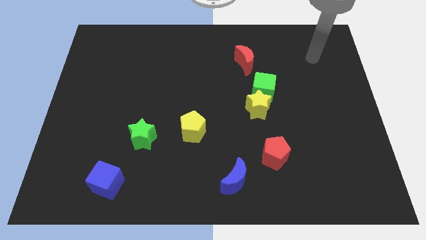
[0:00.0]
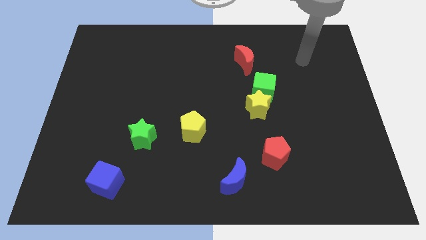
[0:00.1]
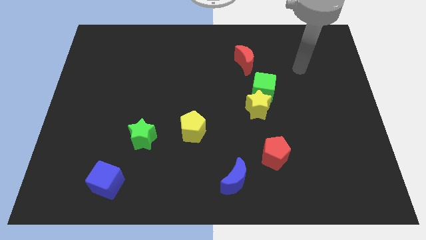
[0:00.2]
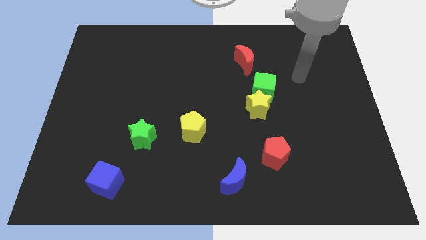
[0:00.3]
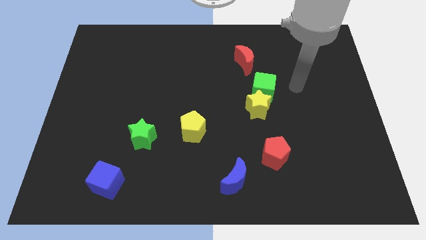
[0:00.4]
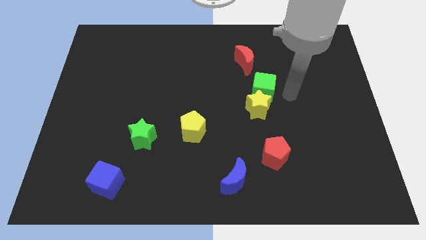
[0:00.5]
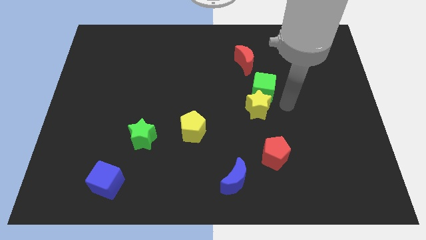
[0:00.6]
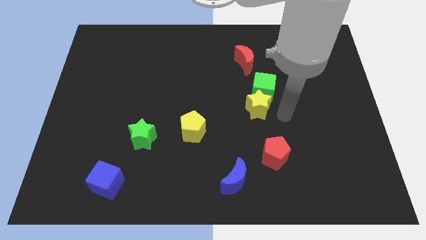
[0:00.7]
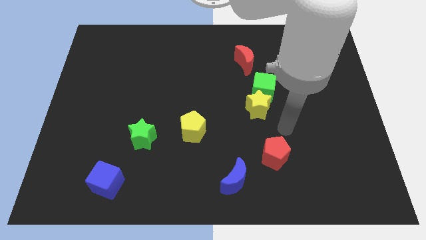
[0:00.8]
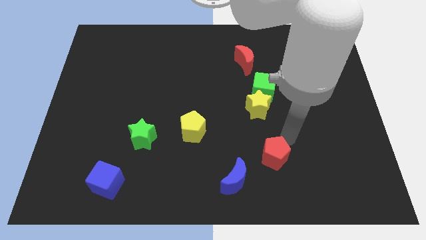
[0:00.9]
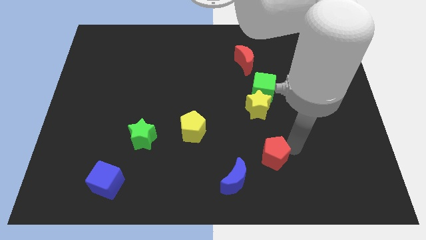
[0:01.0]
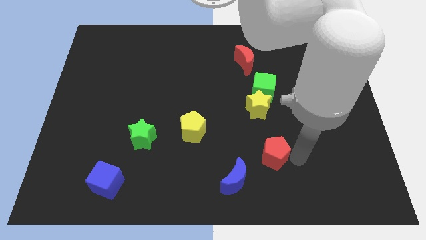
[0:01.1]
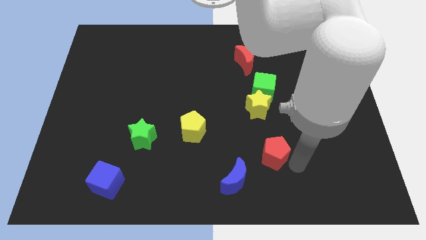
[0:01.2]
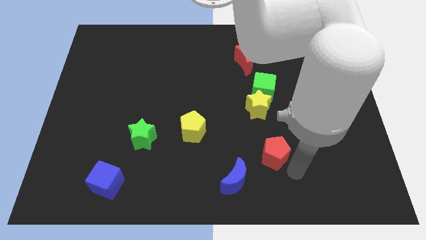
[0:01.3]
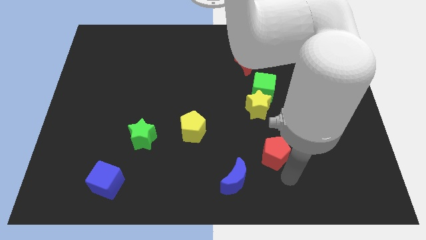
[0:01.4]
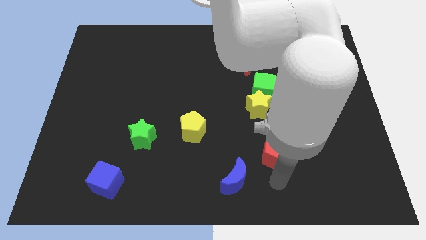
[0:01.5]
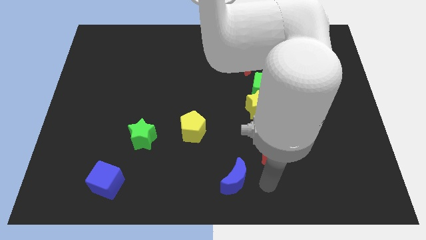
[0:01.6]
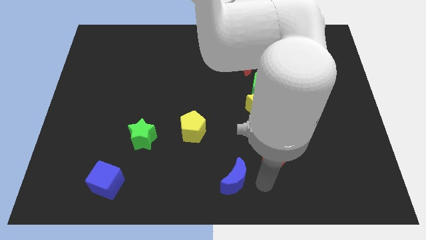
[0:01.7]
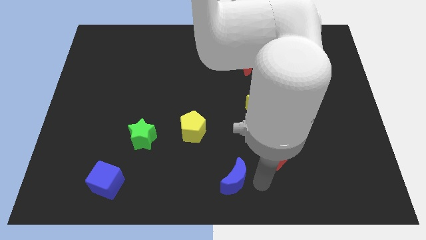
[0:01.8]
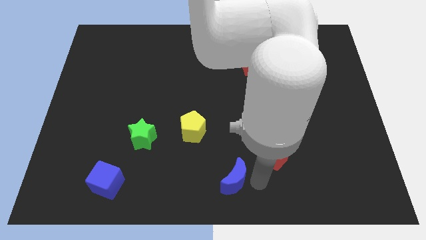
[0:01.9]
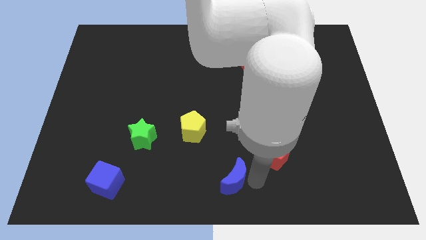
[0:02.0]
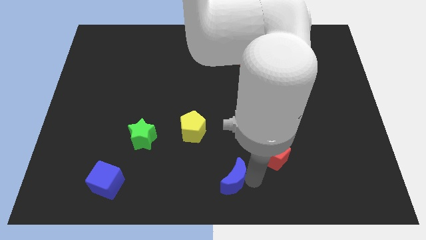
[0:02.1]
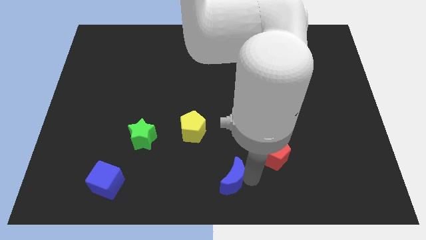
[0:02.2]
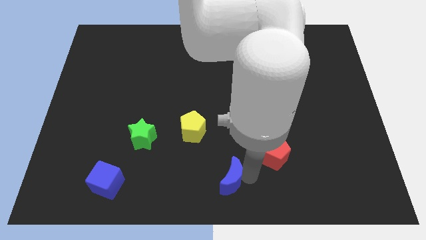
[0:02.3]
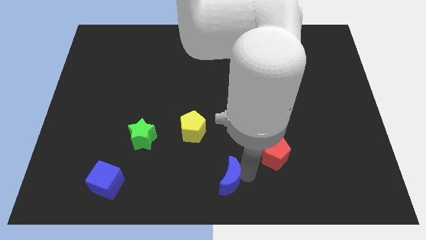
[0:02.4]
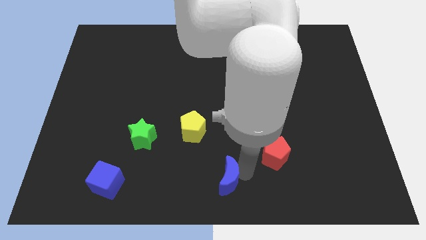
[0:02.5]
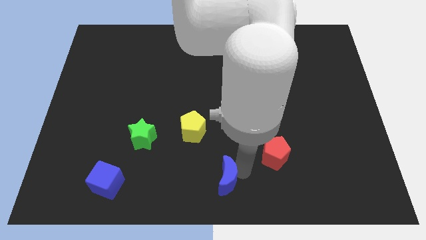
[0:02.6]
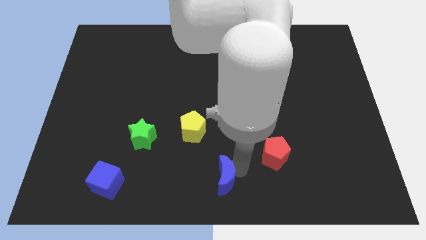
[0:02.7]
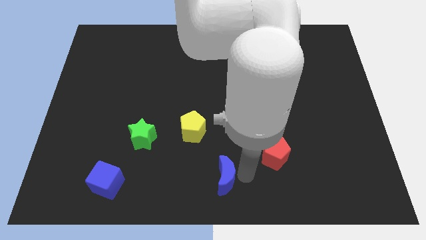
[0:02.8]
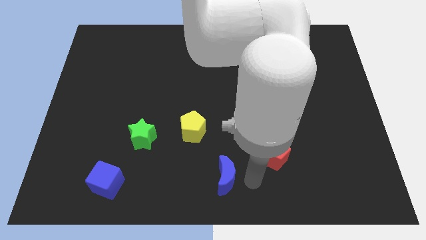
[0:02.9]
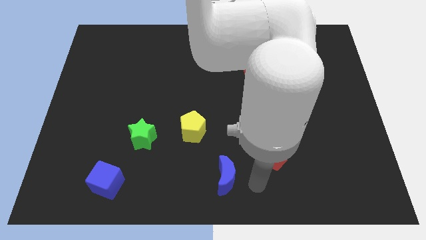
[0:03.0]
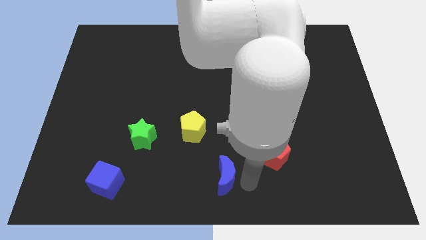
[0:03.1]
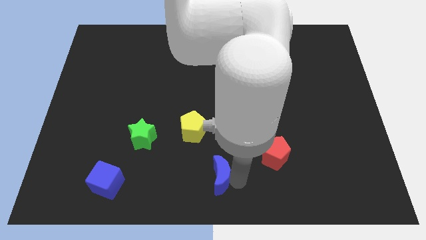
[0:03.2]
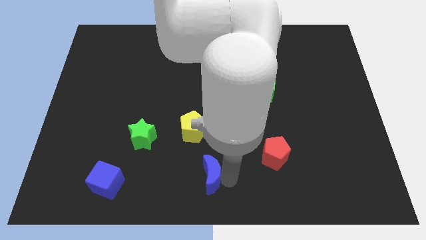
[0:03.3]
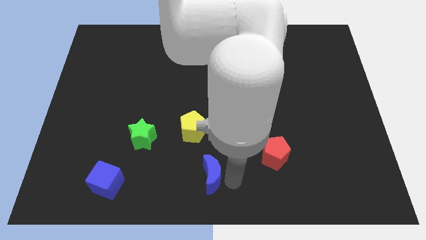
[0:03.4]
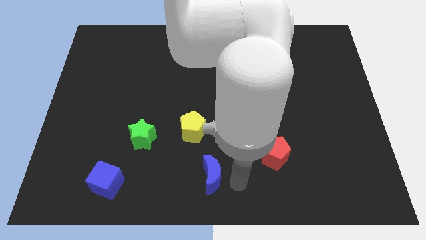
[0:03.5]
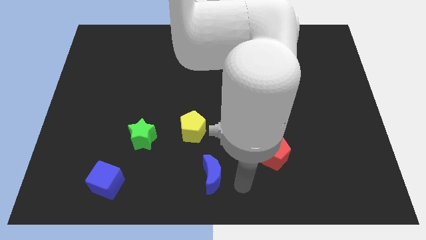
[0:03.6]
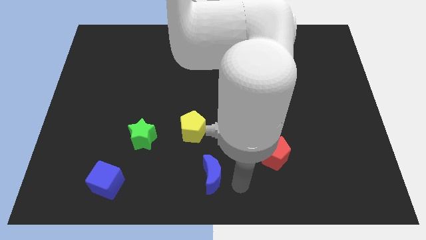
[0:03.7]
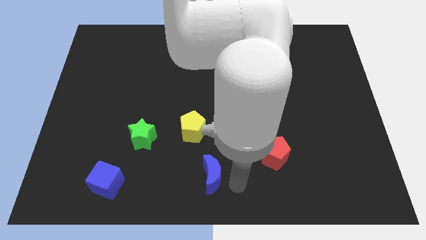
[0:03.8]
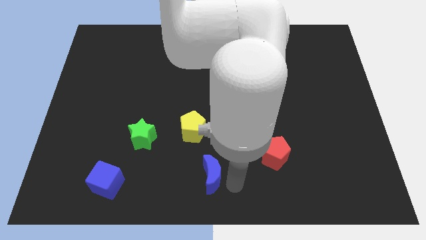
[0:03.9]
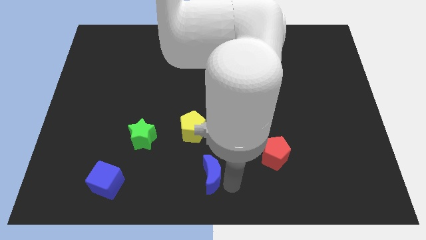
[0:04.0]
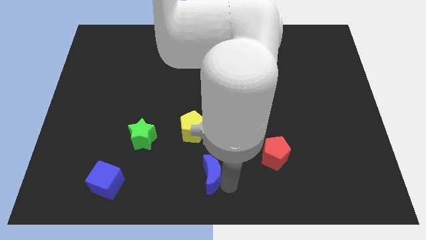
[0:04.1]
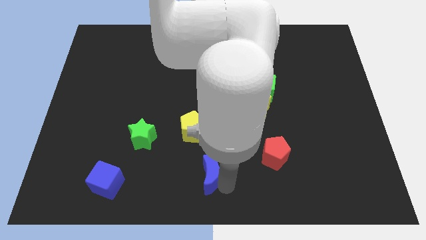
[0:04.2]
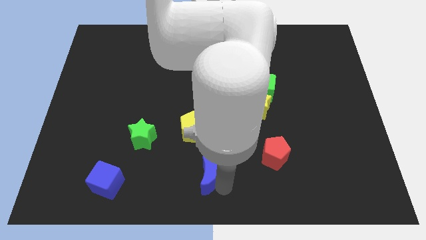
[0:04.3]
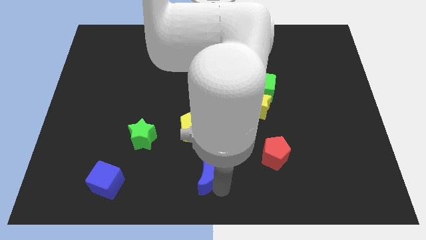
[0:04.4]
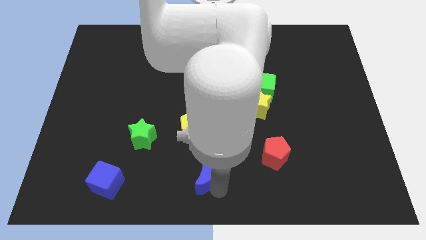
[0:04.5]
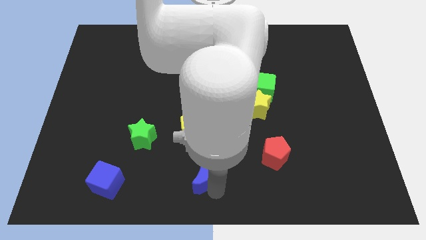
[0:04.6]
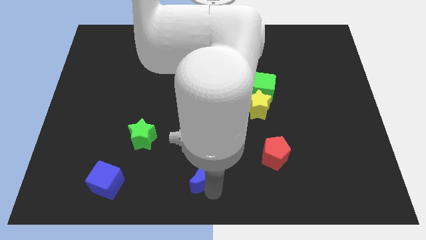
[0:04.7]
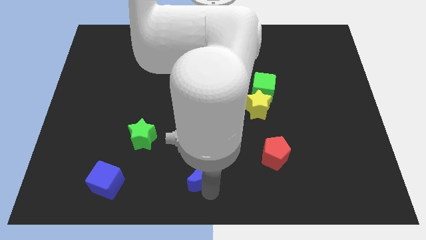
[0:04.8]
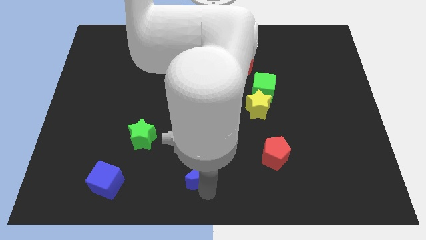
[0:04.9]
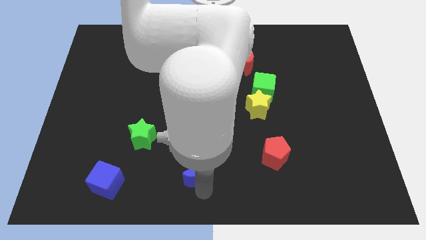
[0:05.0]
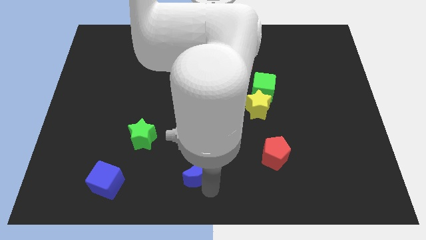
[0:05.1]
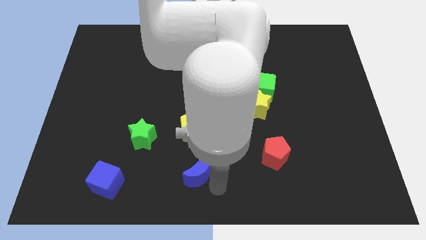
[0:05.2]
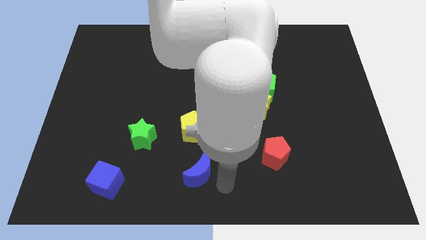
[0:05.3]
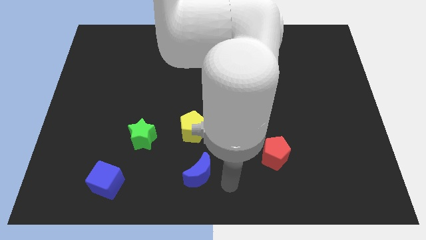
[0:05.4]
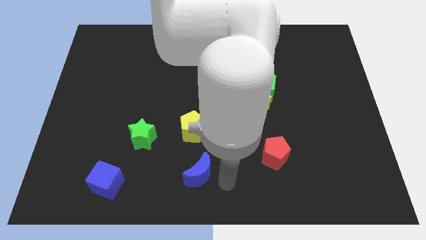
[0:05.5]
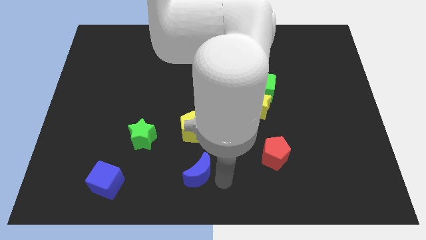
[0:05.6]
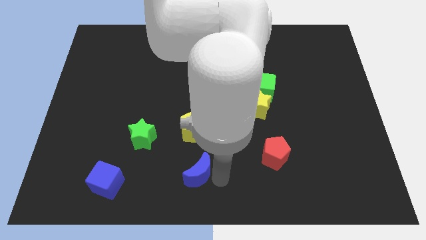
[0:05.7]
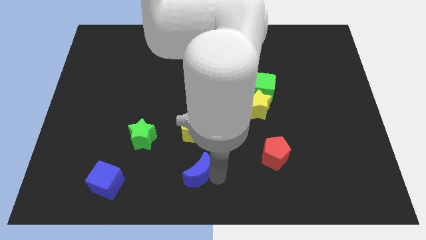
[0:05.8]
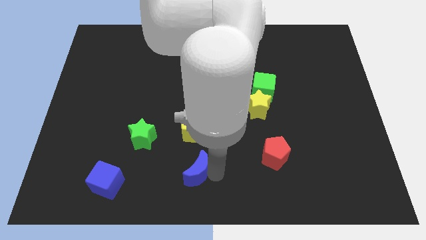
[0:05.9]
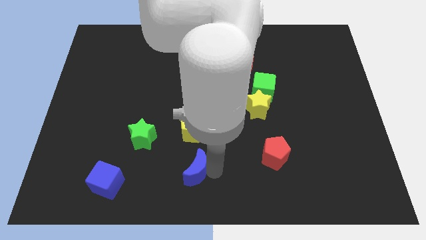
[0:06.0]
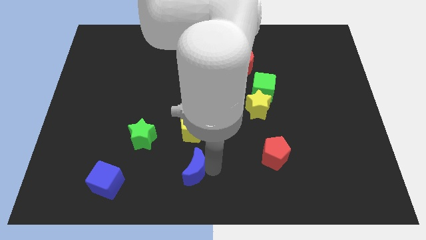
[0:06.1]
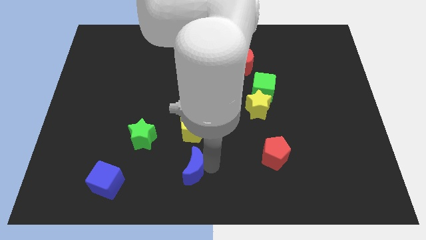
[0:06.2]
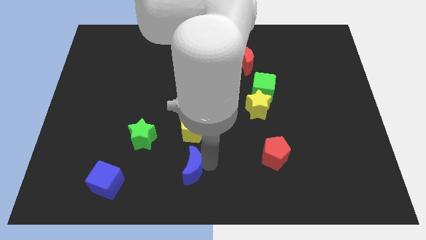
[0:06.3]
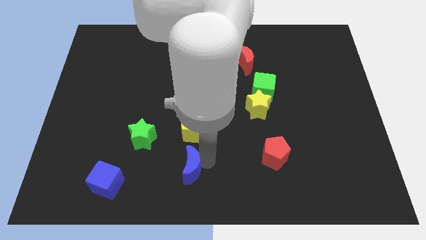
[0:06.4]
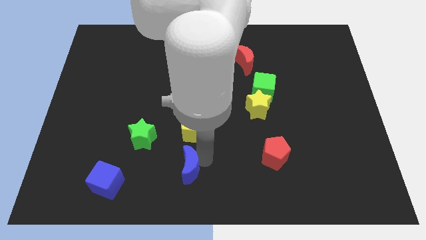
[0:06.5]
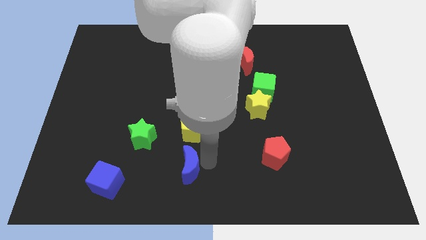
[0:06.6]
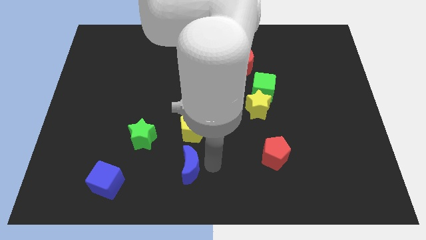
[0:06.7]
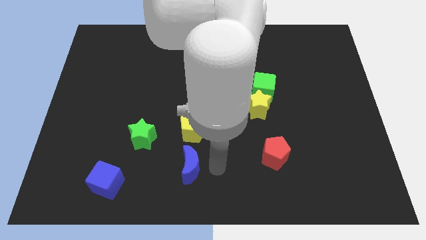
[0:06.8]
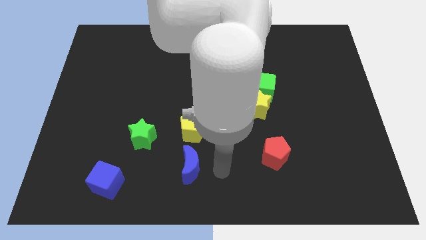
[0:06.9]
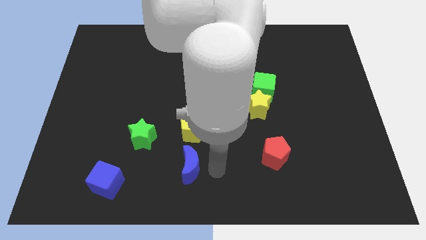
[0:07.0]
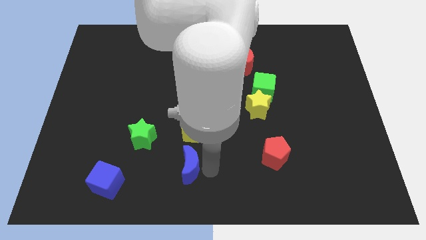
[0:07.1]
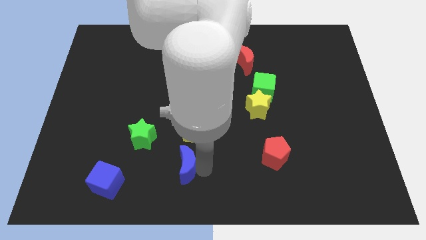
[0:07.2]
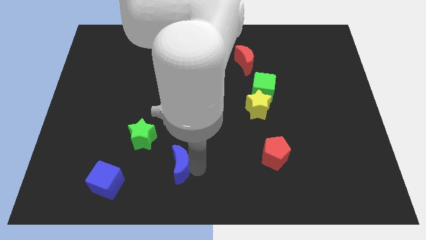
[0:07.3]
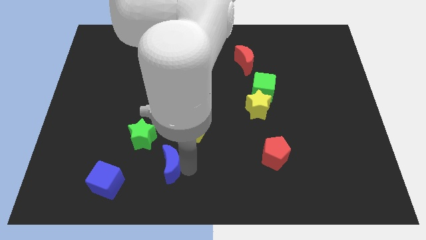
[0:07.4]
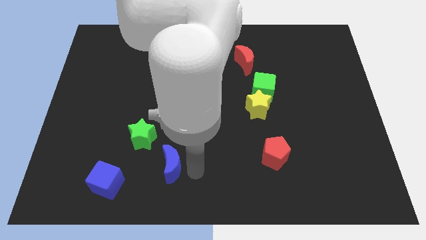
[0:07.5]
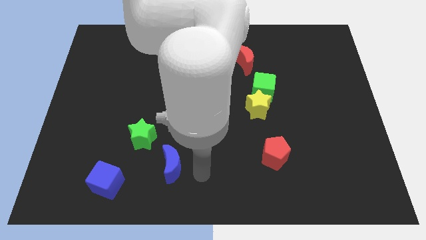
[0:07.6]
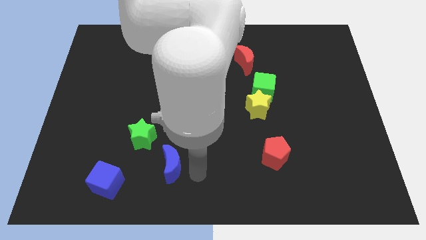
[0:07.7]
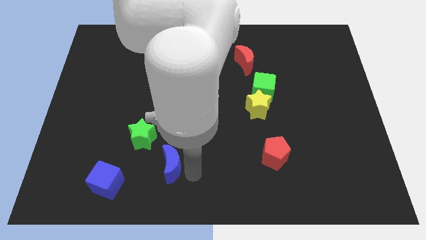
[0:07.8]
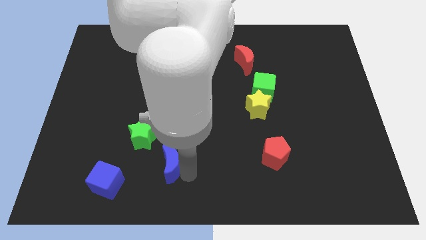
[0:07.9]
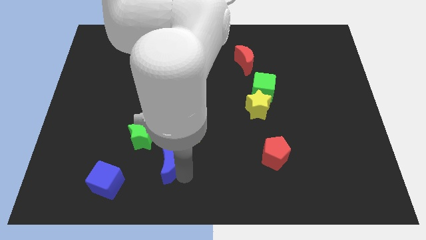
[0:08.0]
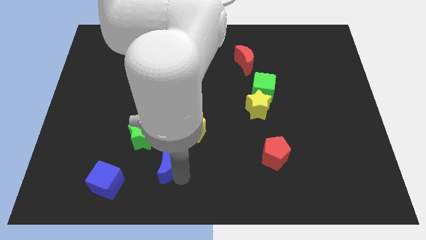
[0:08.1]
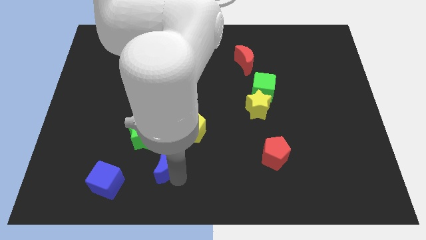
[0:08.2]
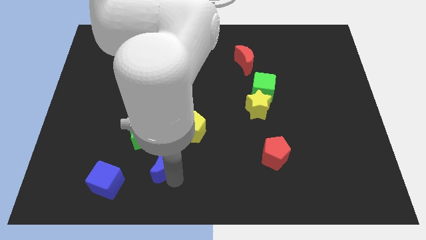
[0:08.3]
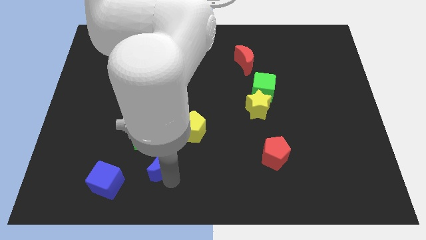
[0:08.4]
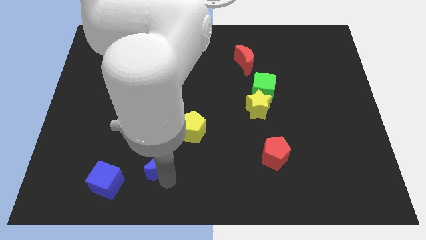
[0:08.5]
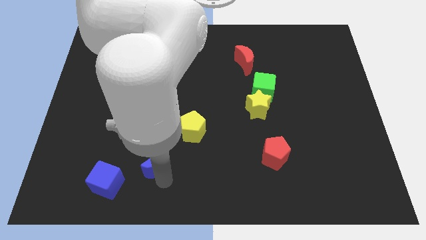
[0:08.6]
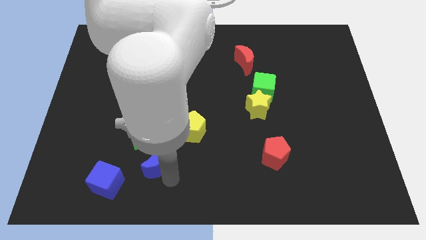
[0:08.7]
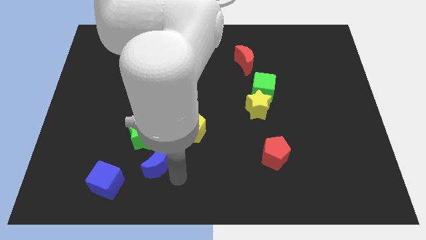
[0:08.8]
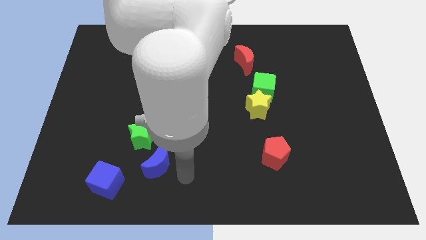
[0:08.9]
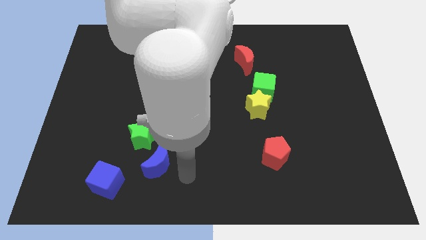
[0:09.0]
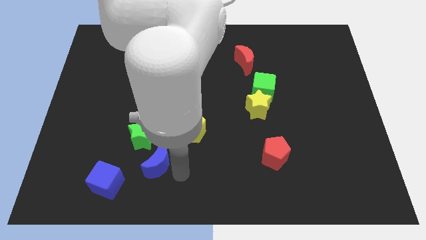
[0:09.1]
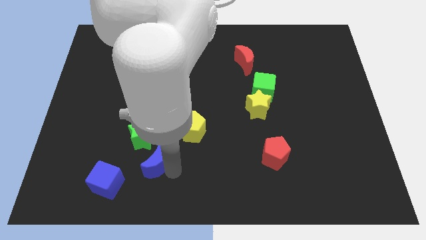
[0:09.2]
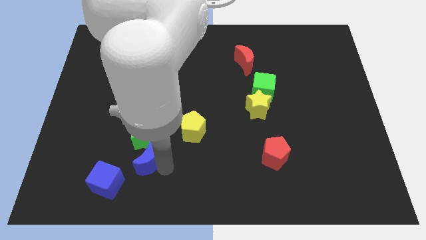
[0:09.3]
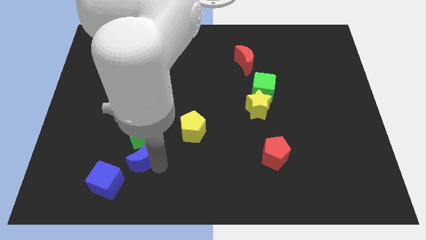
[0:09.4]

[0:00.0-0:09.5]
slide the blue moon to the bottom left of the green star
